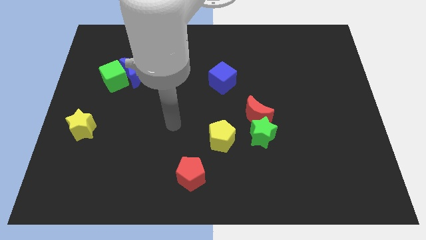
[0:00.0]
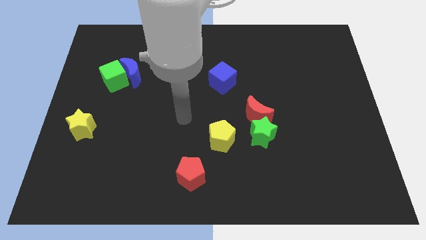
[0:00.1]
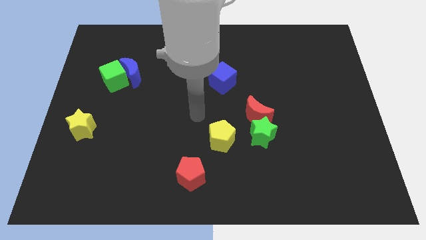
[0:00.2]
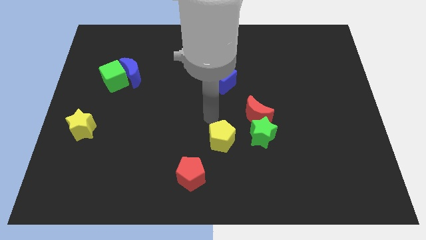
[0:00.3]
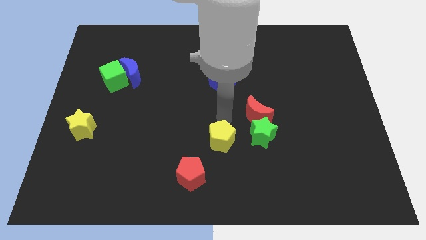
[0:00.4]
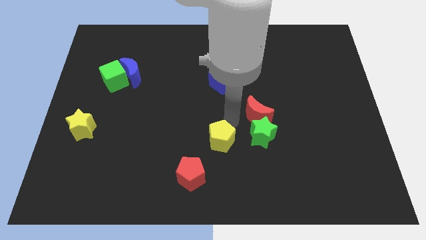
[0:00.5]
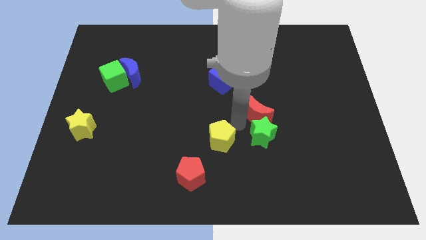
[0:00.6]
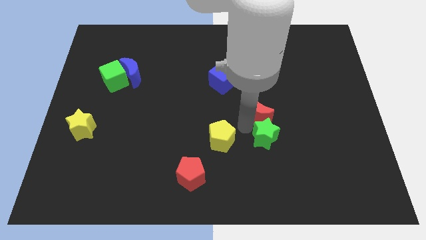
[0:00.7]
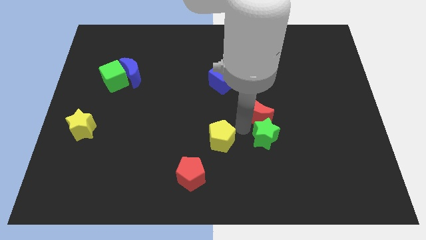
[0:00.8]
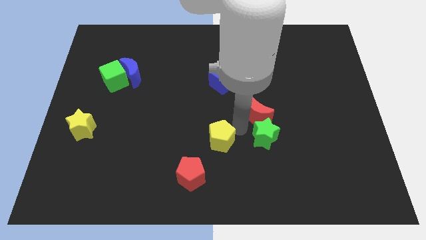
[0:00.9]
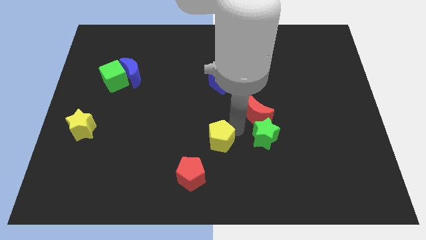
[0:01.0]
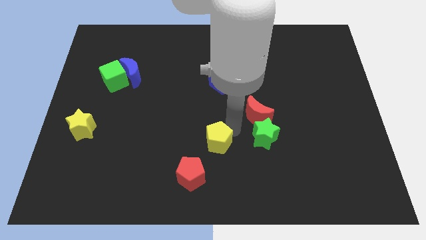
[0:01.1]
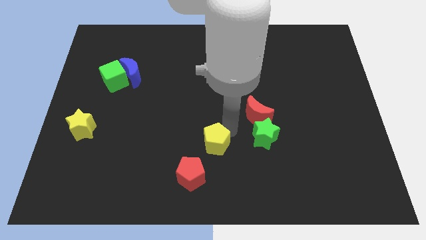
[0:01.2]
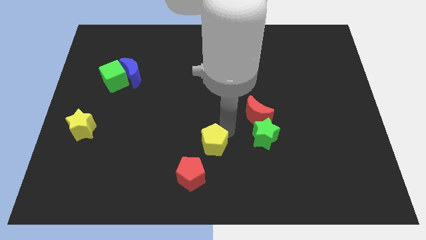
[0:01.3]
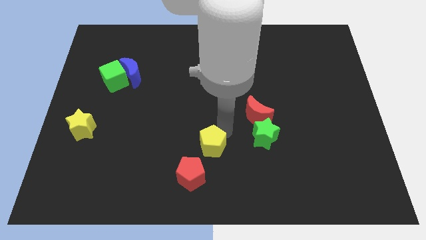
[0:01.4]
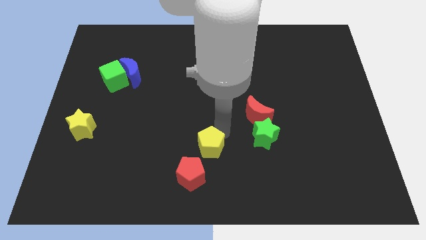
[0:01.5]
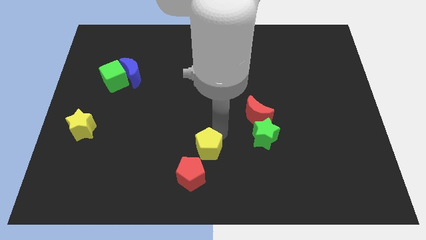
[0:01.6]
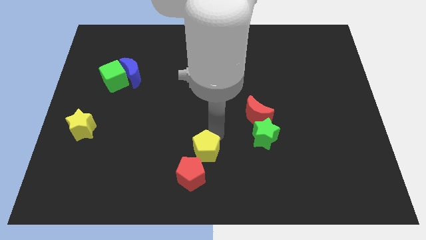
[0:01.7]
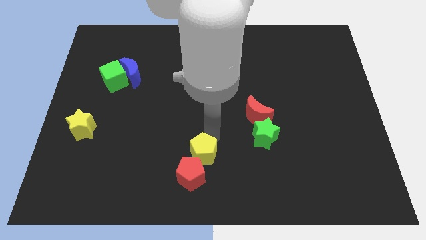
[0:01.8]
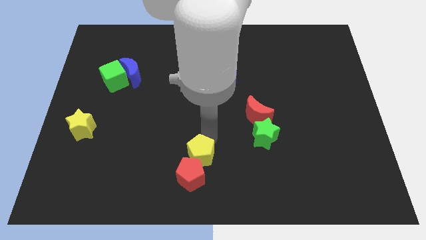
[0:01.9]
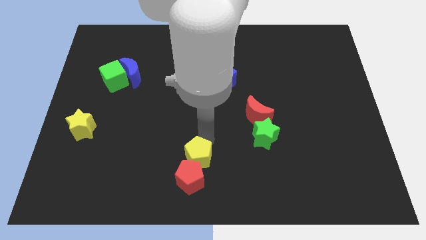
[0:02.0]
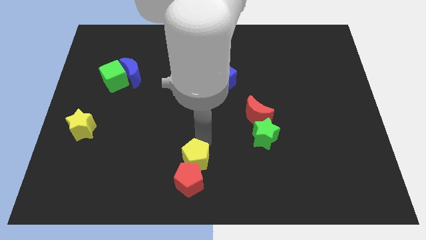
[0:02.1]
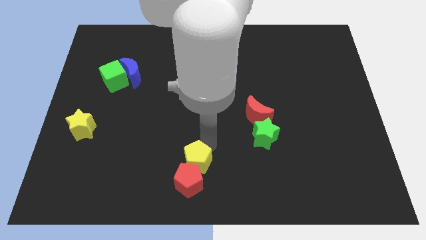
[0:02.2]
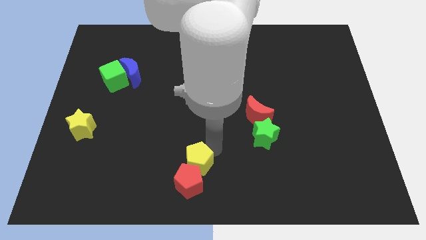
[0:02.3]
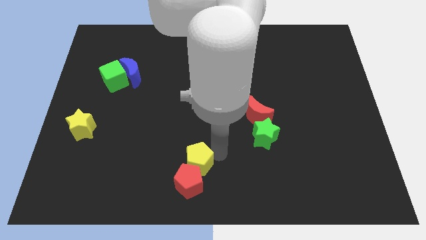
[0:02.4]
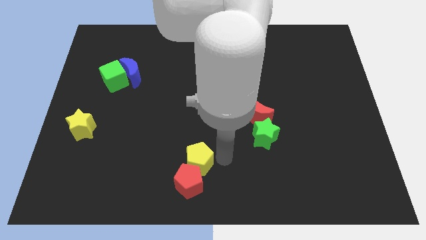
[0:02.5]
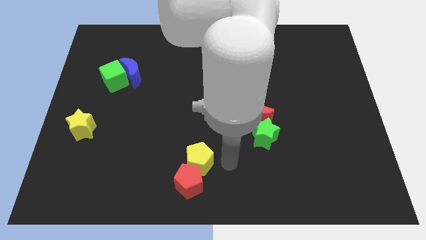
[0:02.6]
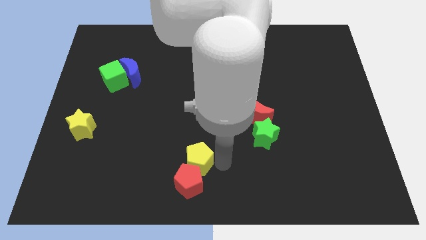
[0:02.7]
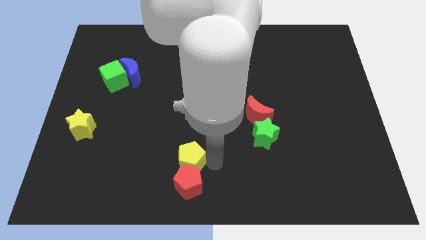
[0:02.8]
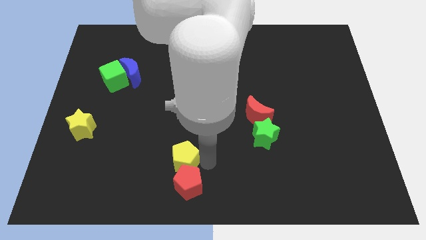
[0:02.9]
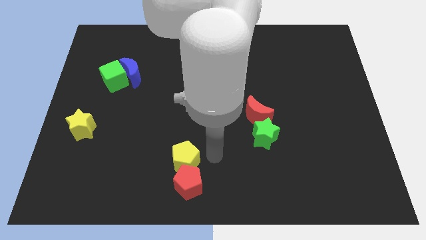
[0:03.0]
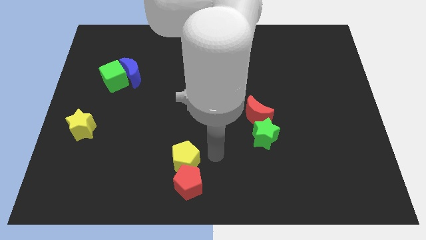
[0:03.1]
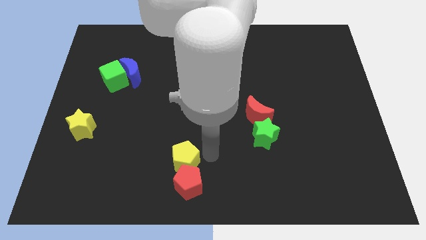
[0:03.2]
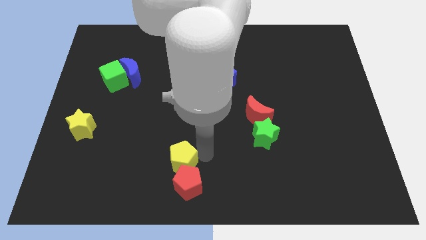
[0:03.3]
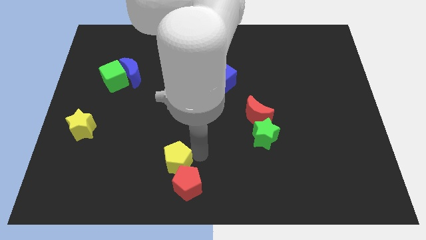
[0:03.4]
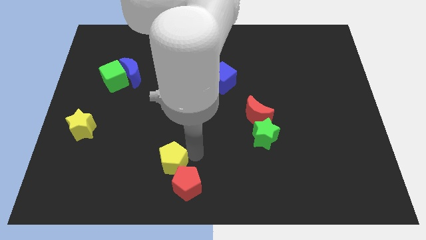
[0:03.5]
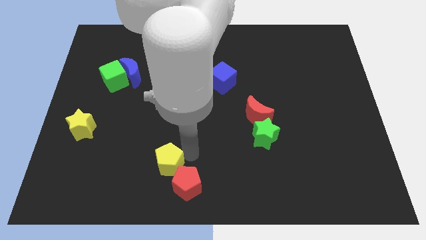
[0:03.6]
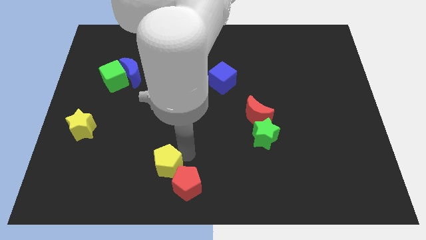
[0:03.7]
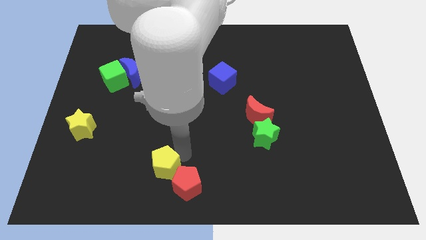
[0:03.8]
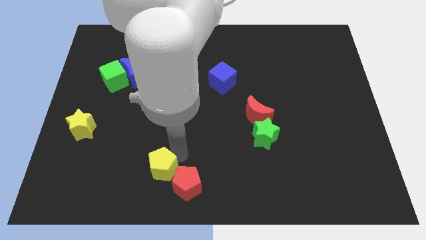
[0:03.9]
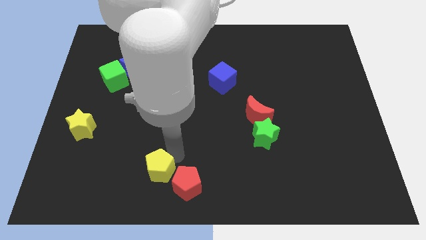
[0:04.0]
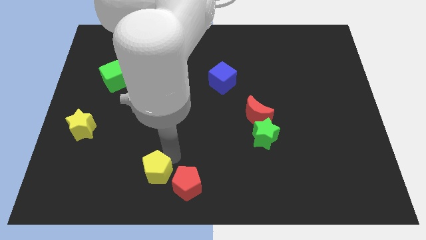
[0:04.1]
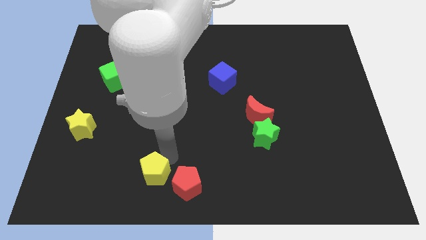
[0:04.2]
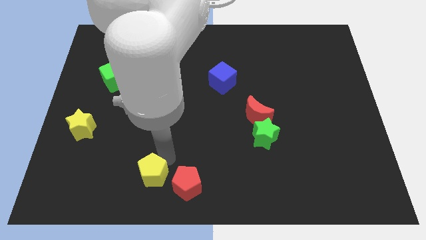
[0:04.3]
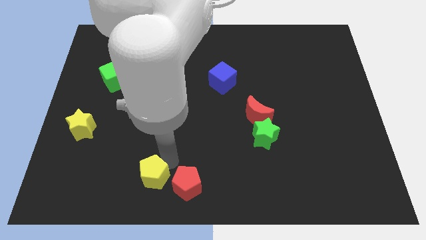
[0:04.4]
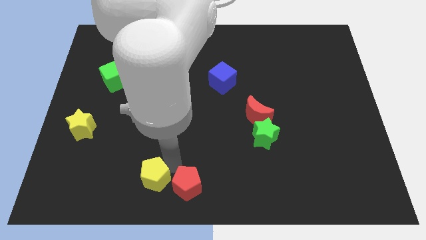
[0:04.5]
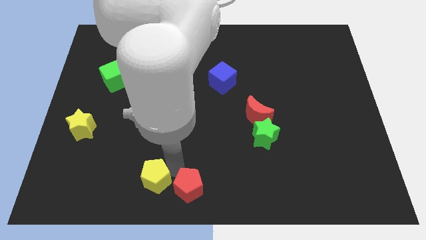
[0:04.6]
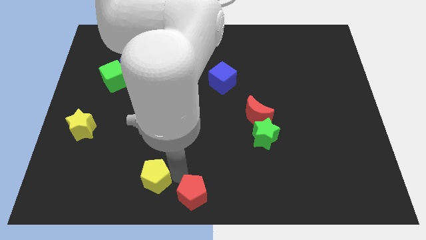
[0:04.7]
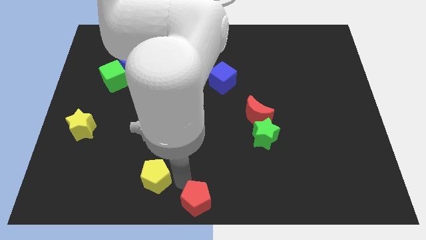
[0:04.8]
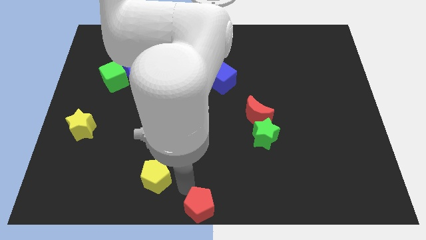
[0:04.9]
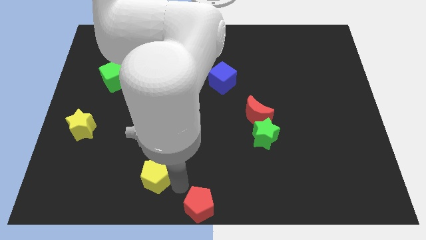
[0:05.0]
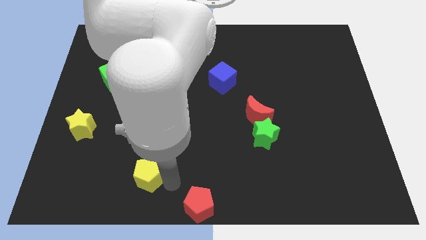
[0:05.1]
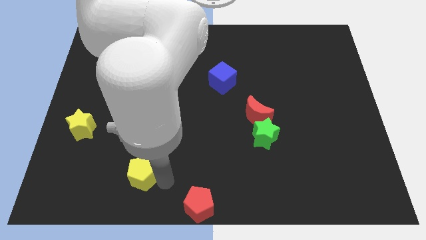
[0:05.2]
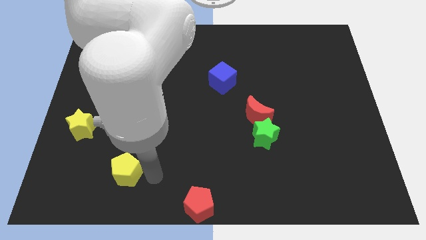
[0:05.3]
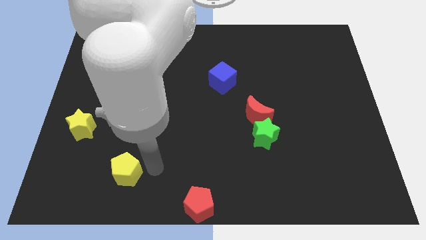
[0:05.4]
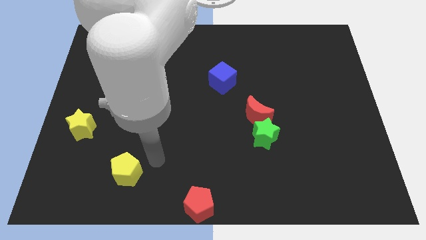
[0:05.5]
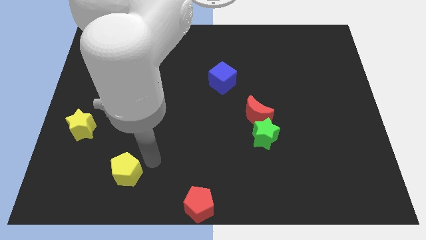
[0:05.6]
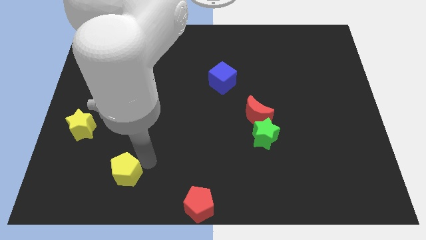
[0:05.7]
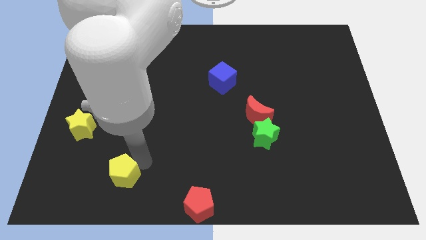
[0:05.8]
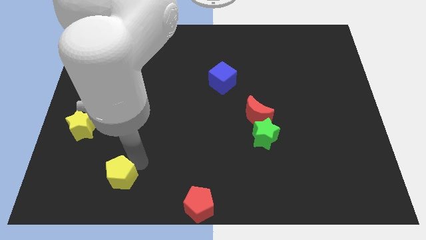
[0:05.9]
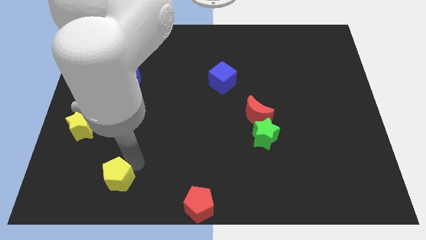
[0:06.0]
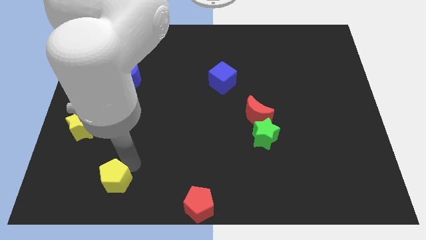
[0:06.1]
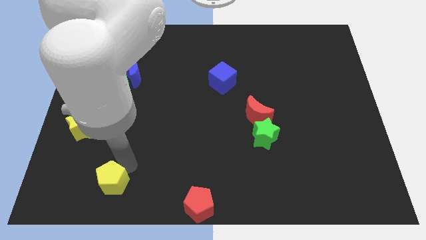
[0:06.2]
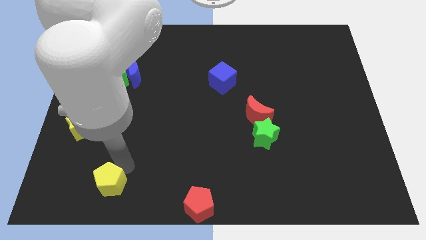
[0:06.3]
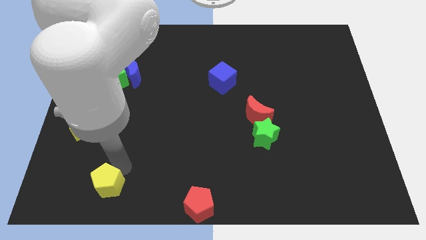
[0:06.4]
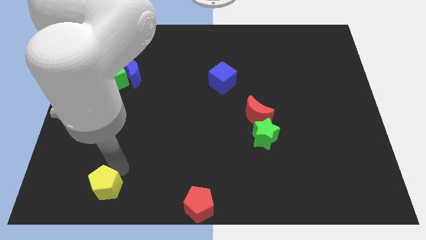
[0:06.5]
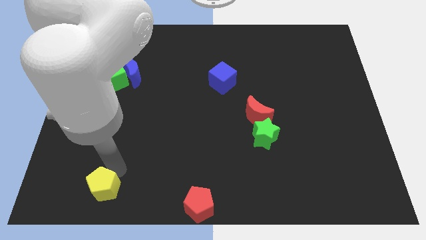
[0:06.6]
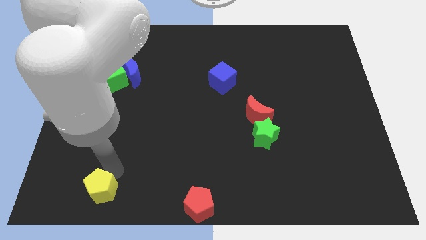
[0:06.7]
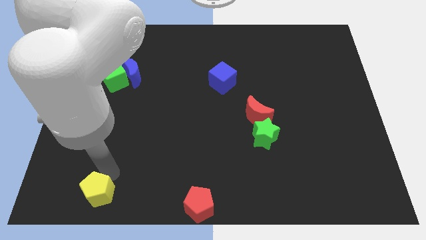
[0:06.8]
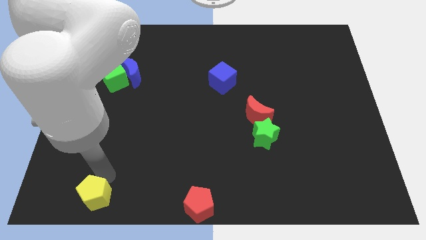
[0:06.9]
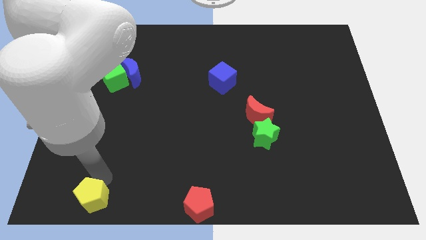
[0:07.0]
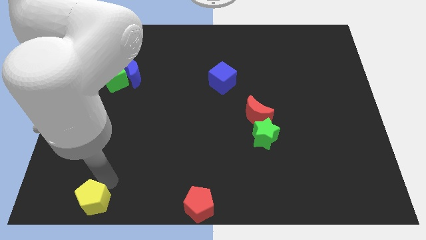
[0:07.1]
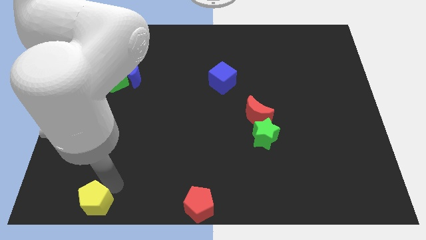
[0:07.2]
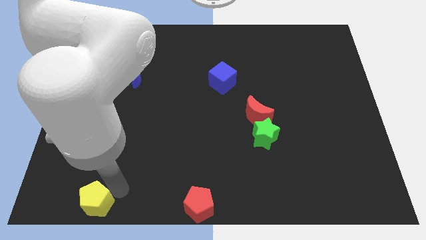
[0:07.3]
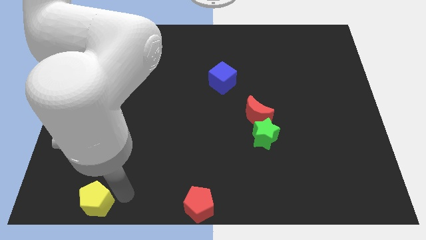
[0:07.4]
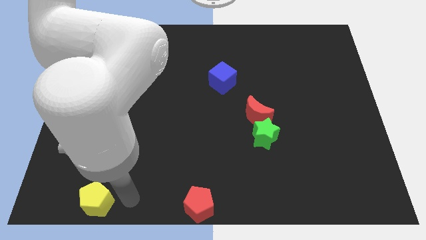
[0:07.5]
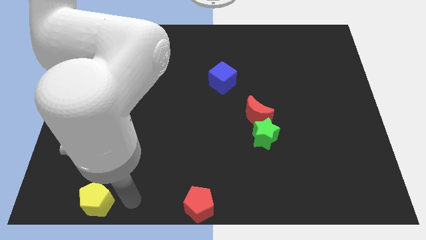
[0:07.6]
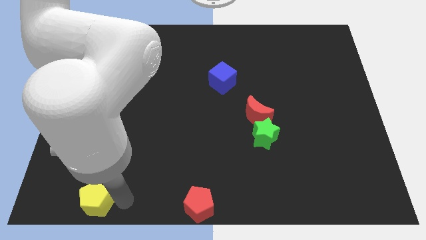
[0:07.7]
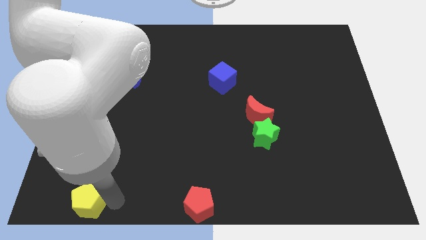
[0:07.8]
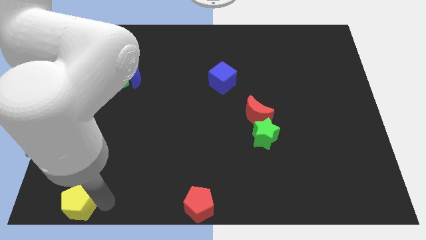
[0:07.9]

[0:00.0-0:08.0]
move the yellow pentagon to the lower left corner
